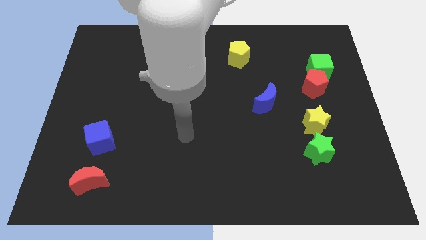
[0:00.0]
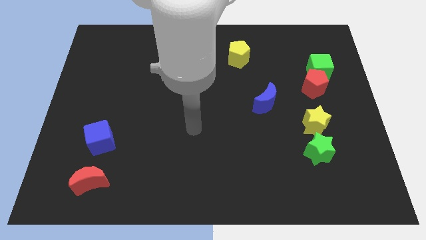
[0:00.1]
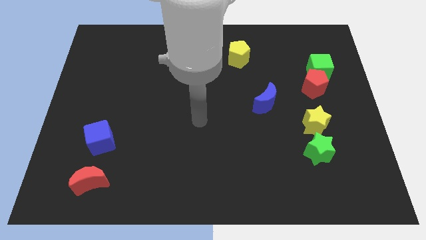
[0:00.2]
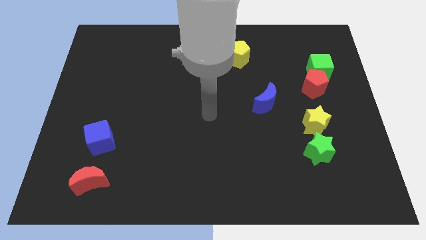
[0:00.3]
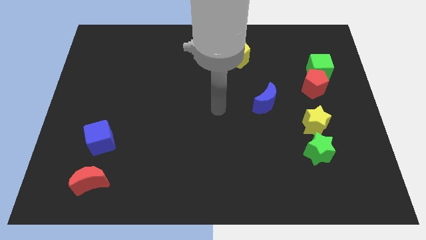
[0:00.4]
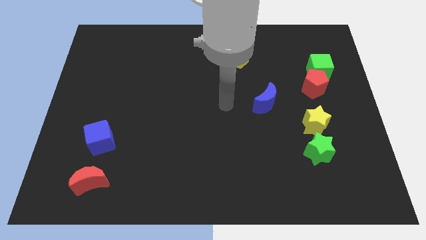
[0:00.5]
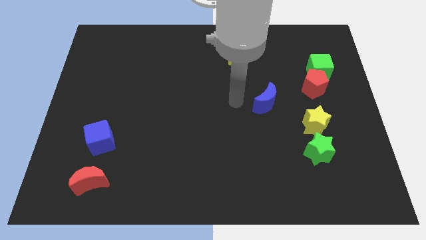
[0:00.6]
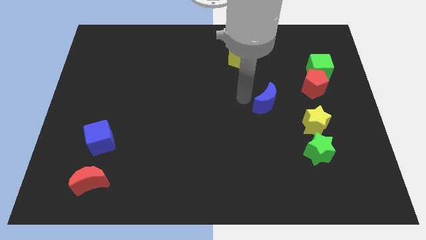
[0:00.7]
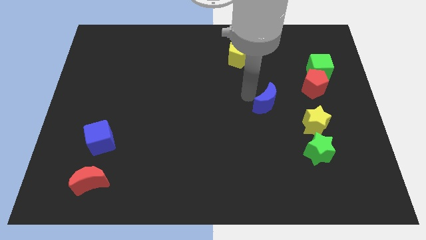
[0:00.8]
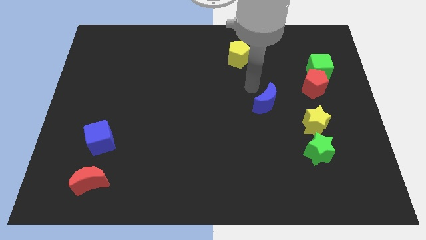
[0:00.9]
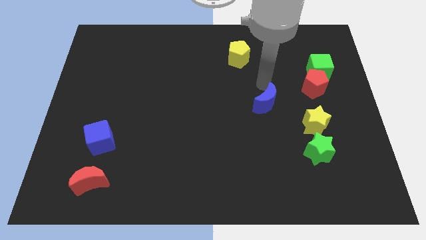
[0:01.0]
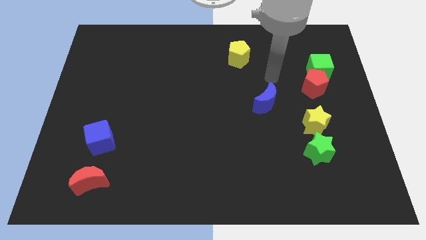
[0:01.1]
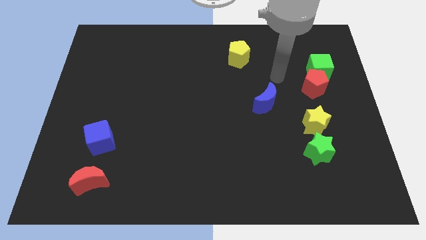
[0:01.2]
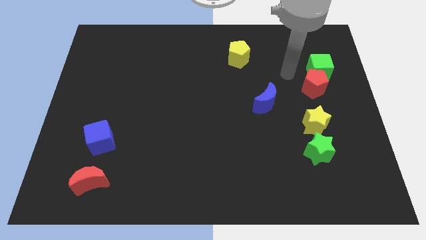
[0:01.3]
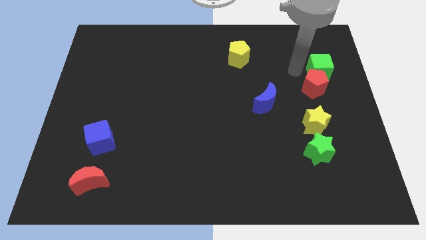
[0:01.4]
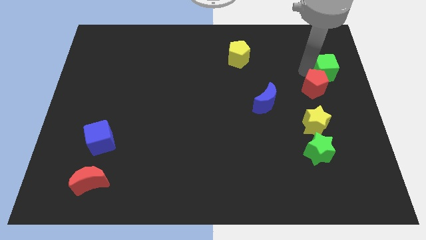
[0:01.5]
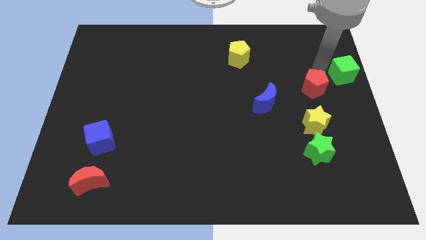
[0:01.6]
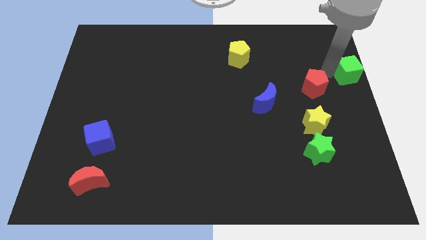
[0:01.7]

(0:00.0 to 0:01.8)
move the red pentagon away from the green cube

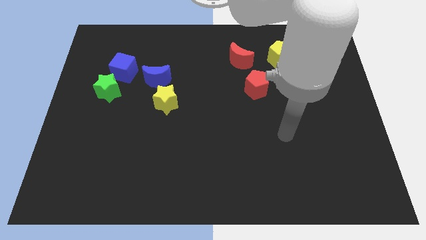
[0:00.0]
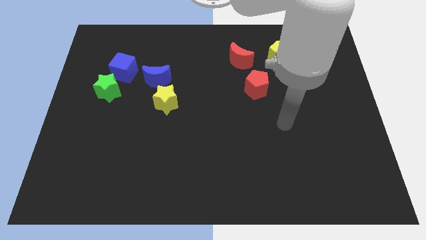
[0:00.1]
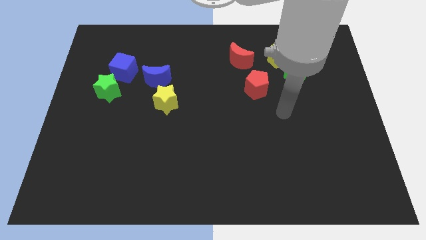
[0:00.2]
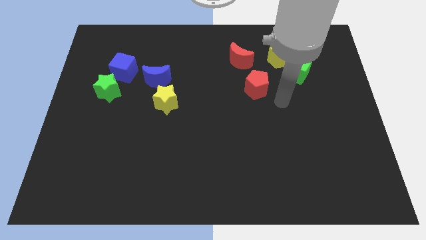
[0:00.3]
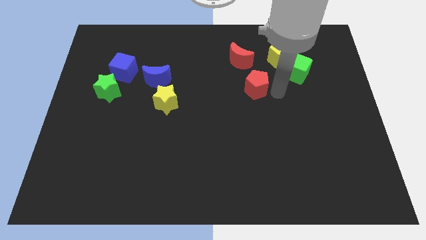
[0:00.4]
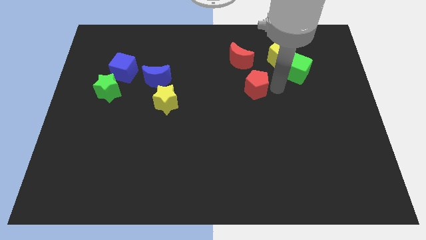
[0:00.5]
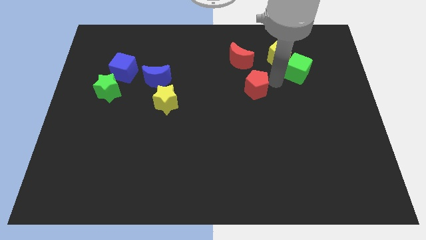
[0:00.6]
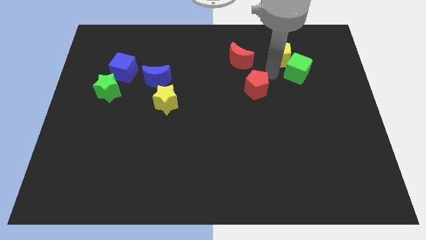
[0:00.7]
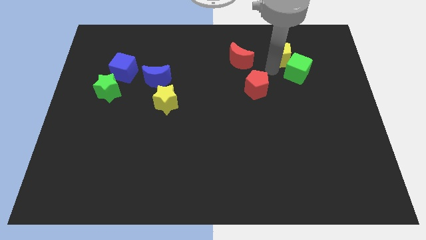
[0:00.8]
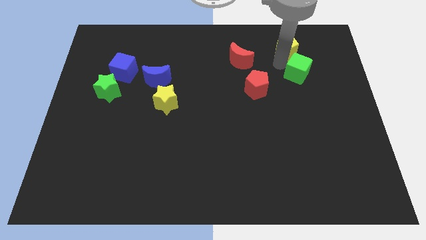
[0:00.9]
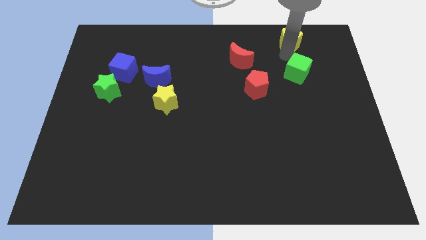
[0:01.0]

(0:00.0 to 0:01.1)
move the green cube away from the yellow pentagon

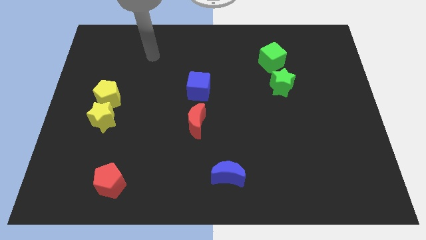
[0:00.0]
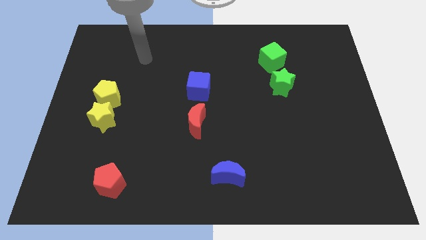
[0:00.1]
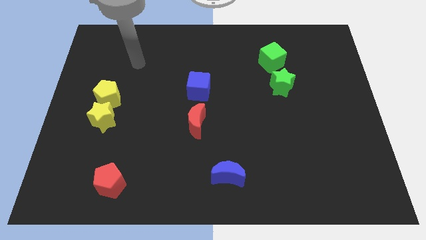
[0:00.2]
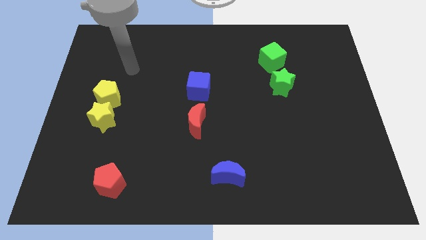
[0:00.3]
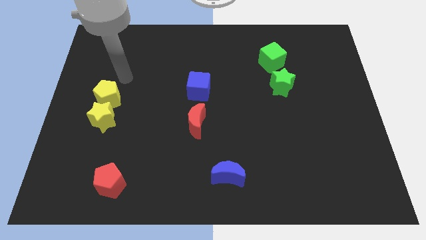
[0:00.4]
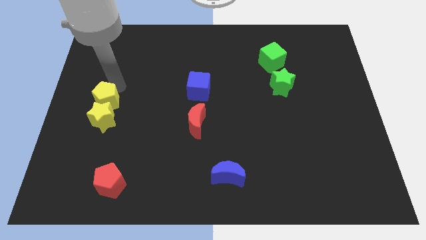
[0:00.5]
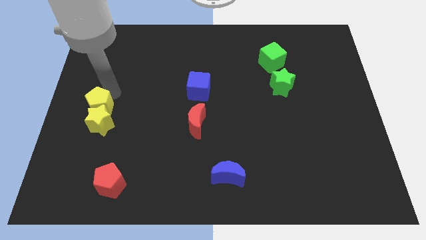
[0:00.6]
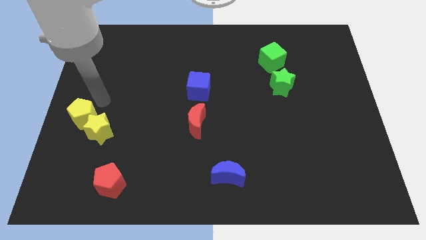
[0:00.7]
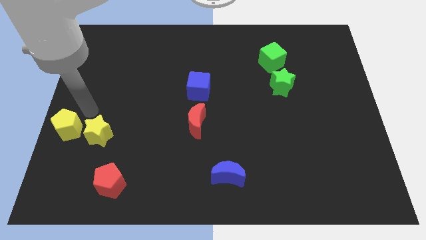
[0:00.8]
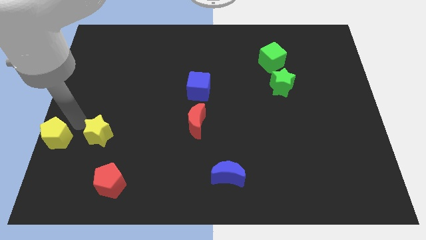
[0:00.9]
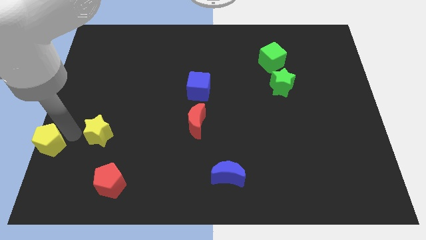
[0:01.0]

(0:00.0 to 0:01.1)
move the yellow star away from the yellow pentagon

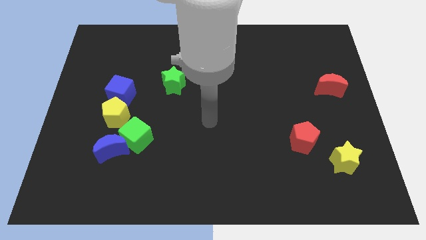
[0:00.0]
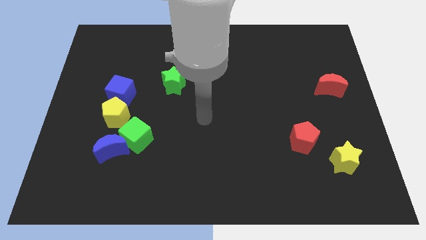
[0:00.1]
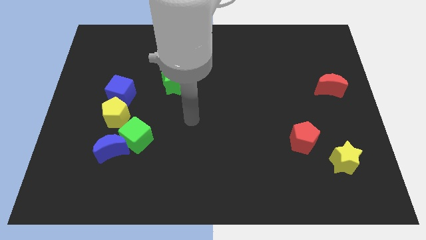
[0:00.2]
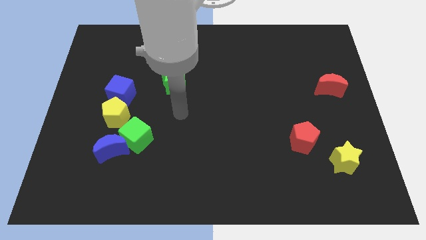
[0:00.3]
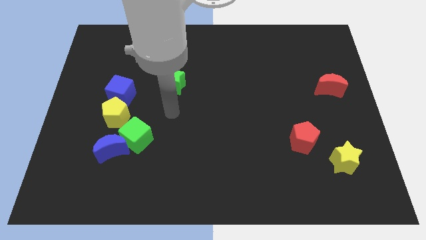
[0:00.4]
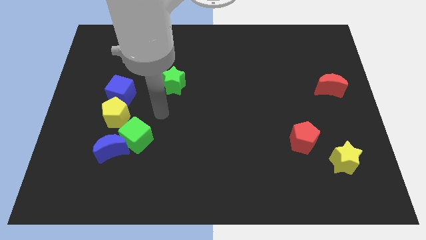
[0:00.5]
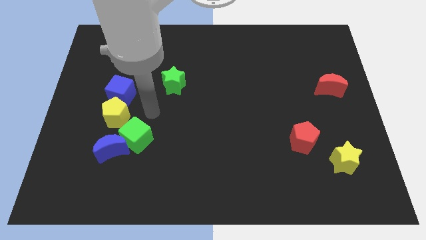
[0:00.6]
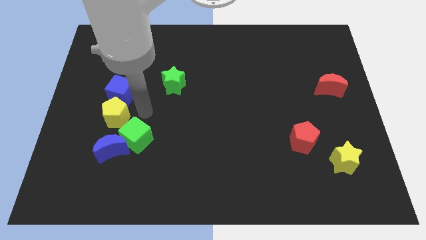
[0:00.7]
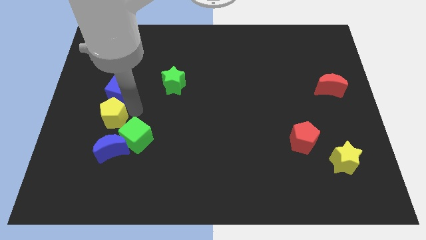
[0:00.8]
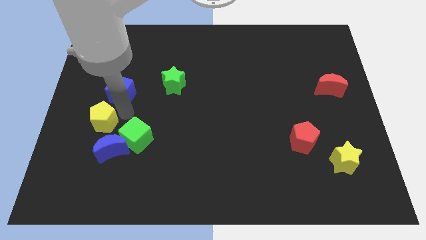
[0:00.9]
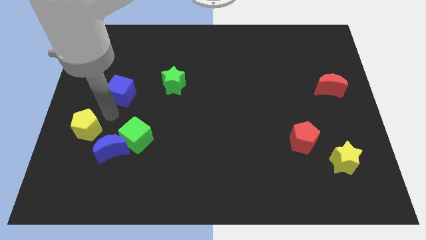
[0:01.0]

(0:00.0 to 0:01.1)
pull the blue cube apart from the yellow pentagon

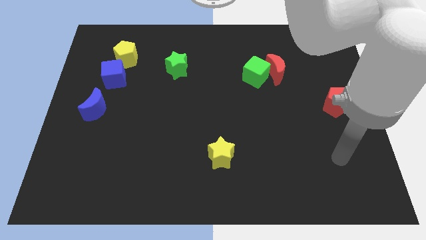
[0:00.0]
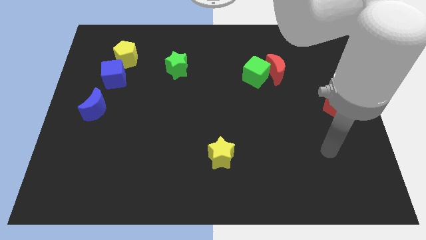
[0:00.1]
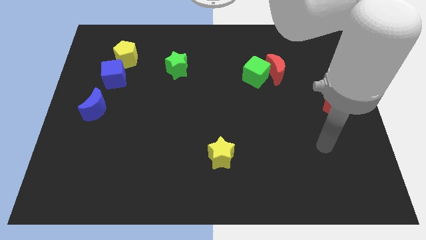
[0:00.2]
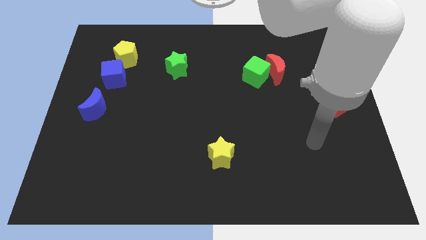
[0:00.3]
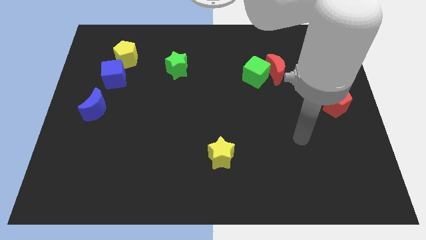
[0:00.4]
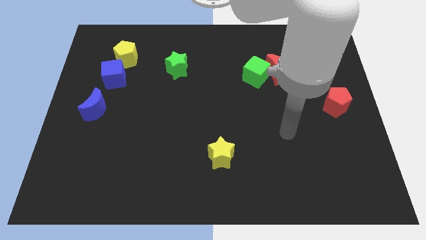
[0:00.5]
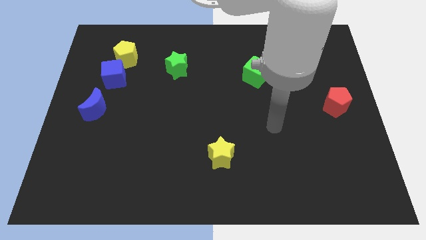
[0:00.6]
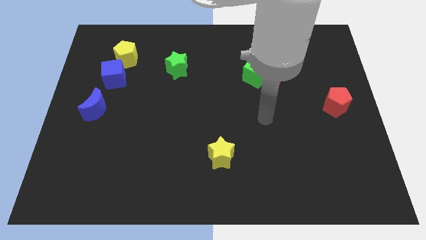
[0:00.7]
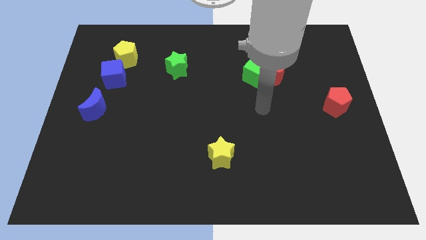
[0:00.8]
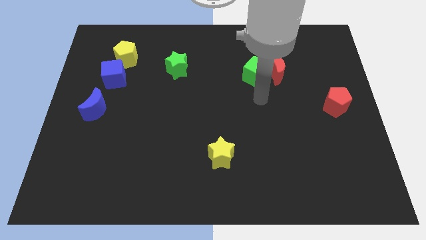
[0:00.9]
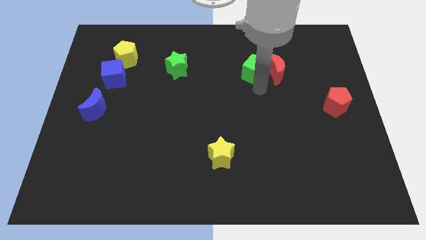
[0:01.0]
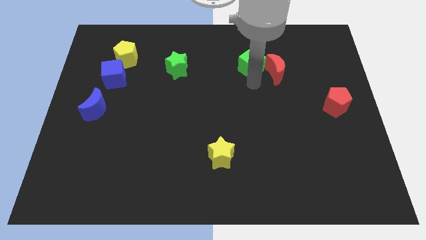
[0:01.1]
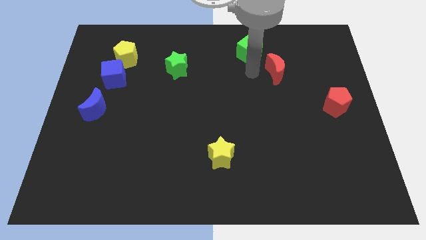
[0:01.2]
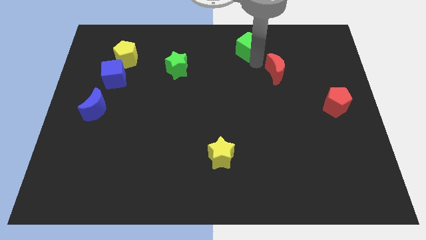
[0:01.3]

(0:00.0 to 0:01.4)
move the red moon away from the green cube

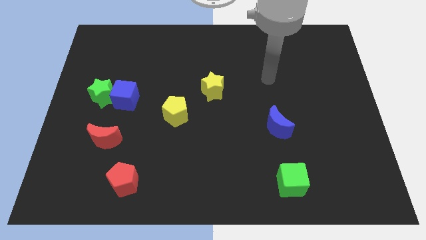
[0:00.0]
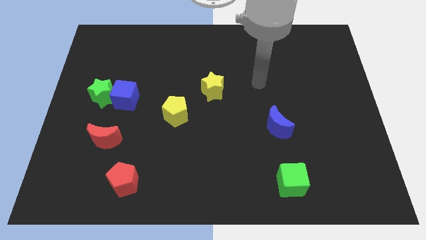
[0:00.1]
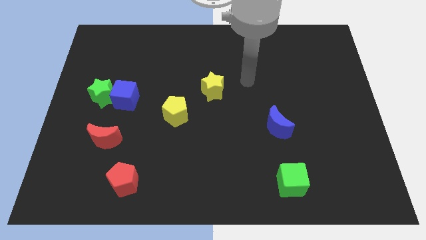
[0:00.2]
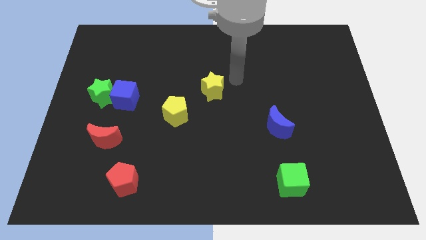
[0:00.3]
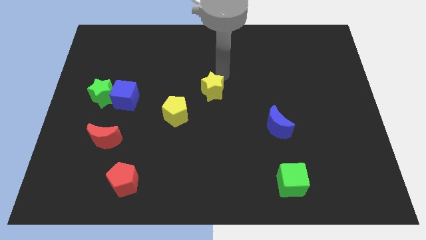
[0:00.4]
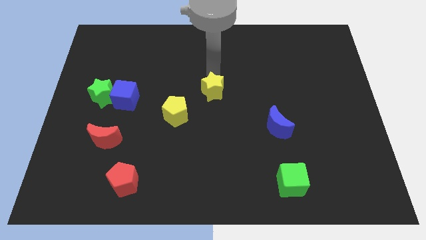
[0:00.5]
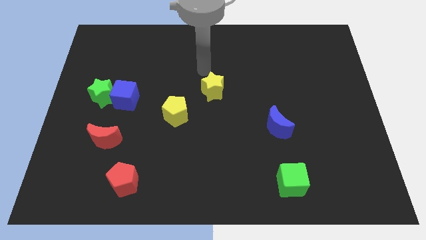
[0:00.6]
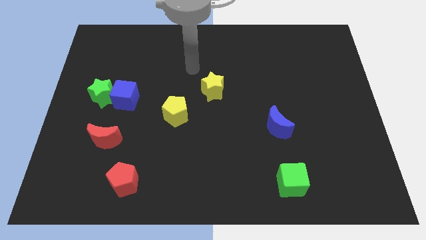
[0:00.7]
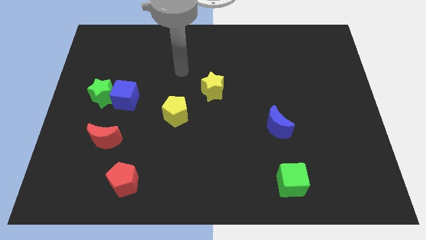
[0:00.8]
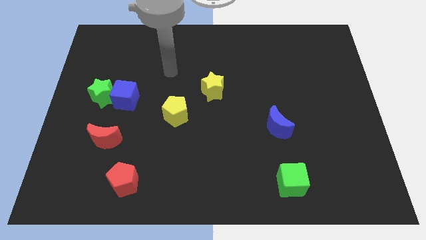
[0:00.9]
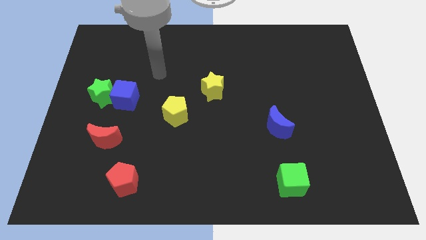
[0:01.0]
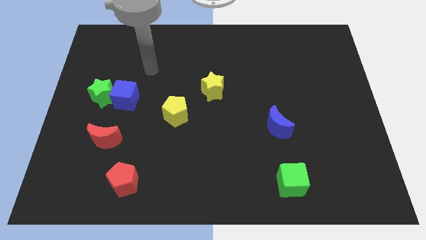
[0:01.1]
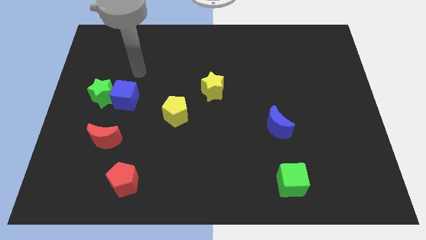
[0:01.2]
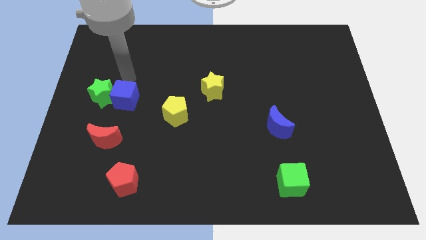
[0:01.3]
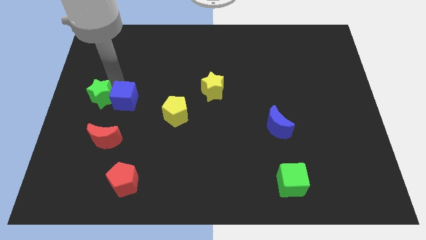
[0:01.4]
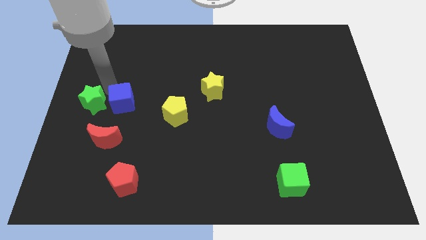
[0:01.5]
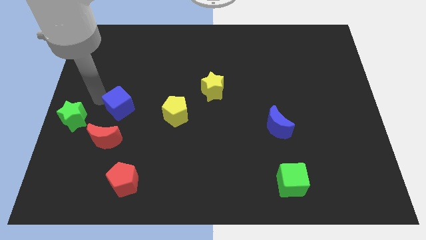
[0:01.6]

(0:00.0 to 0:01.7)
move the blue cube away from the green star

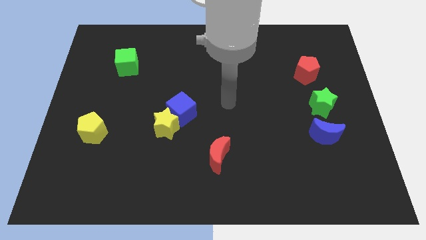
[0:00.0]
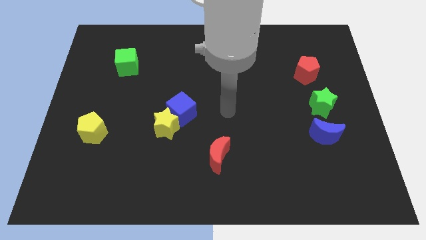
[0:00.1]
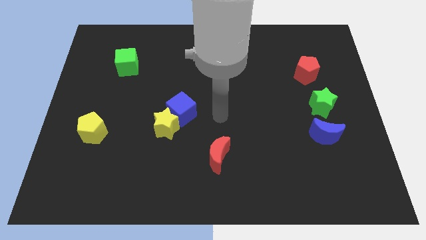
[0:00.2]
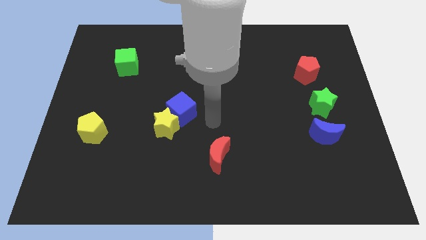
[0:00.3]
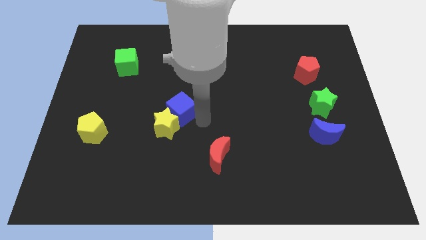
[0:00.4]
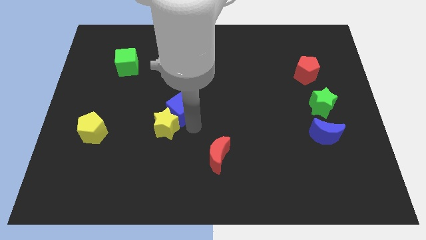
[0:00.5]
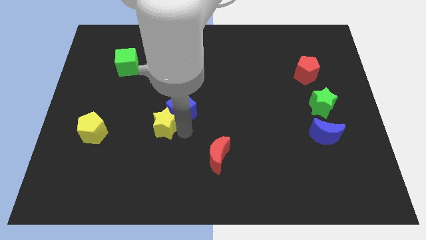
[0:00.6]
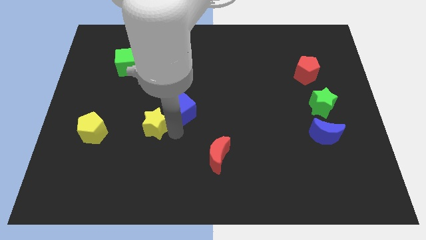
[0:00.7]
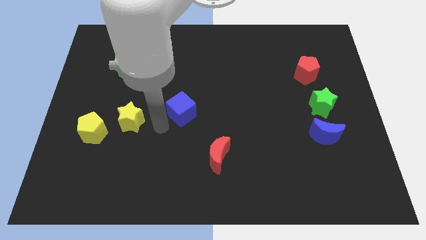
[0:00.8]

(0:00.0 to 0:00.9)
move the blue cube away from the yellow star

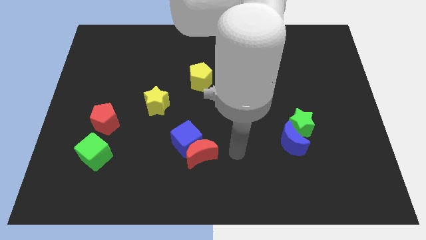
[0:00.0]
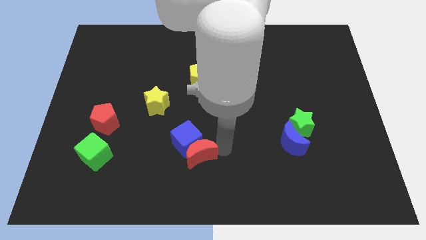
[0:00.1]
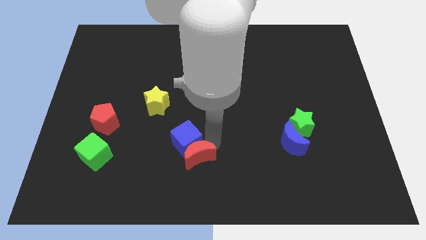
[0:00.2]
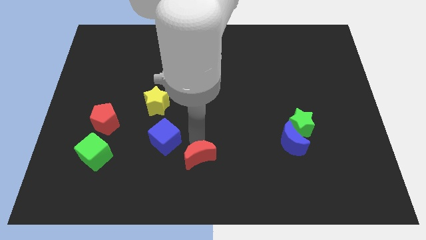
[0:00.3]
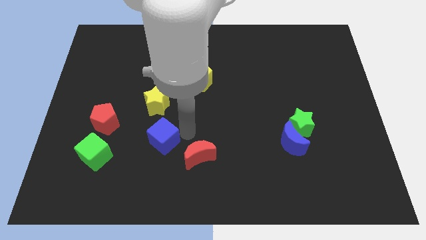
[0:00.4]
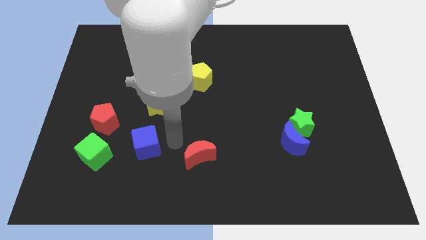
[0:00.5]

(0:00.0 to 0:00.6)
move the red moon away from the blue cube
